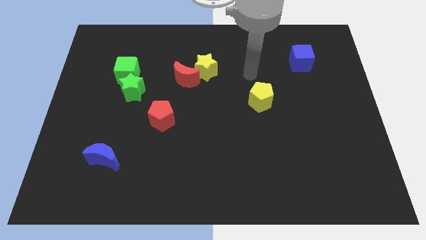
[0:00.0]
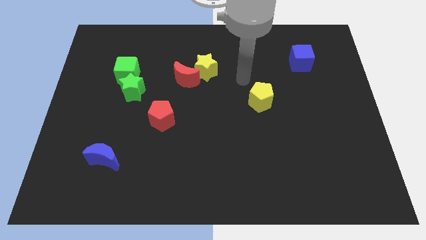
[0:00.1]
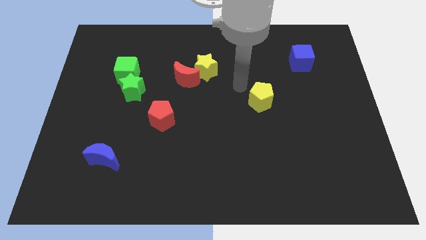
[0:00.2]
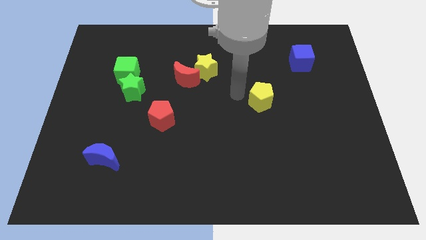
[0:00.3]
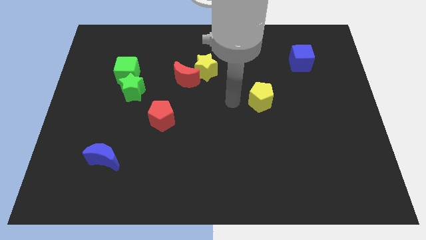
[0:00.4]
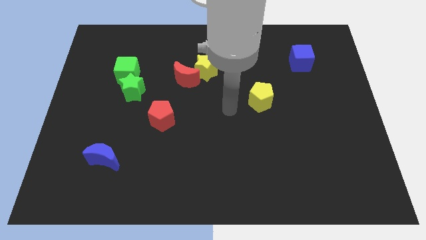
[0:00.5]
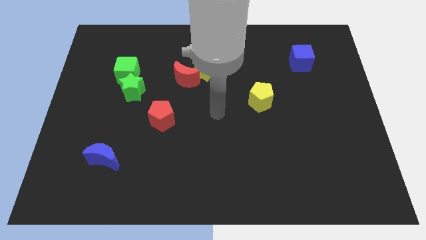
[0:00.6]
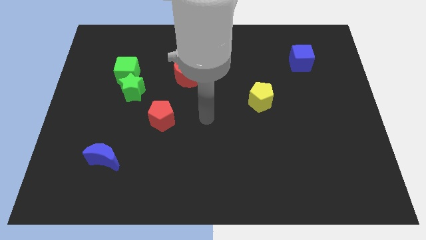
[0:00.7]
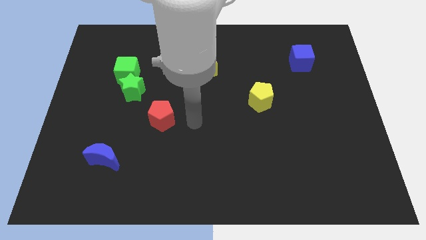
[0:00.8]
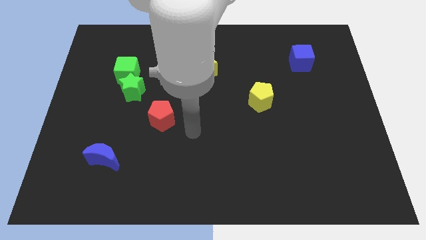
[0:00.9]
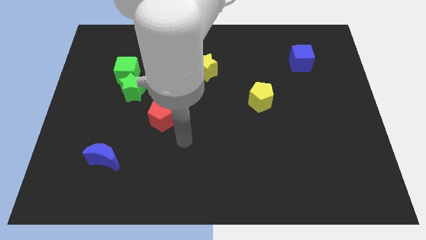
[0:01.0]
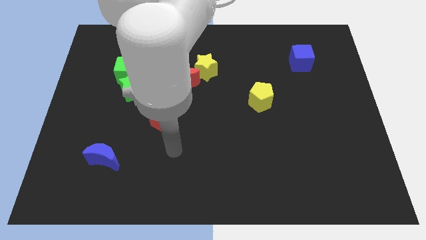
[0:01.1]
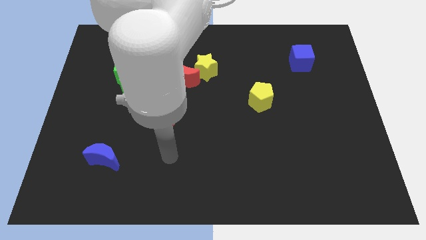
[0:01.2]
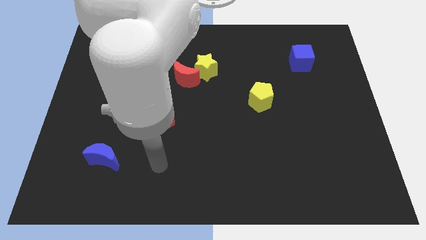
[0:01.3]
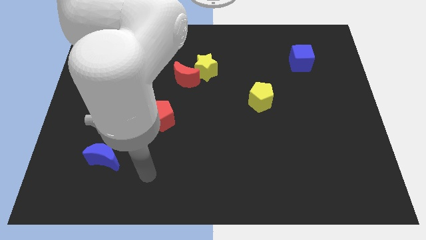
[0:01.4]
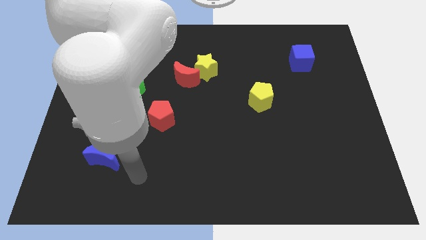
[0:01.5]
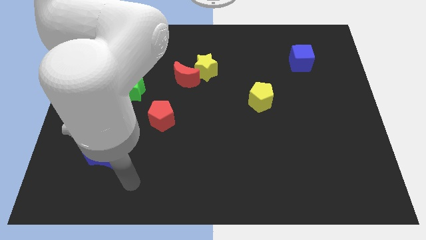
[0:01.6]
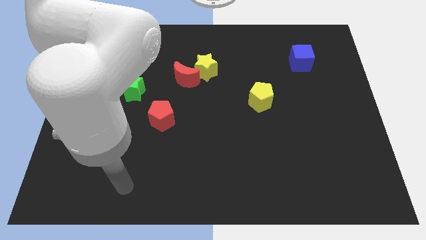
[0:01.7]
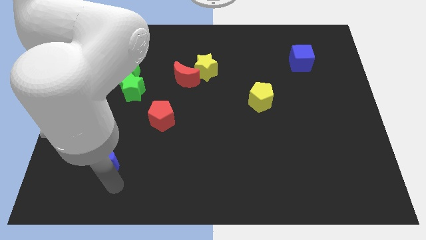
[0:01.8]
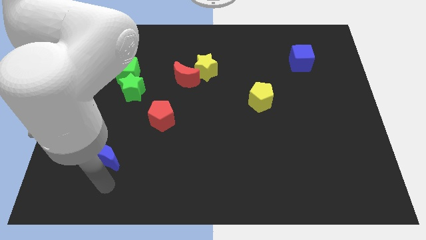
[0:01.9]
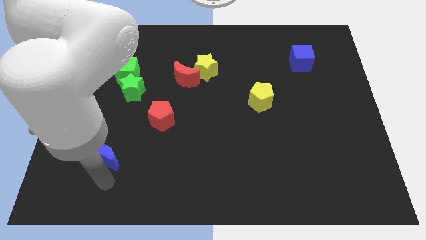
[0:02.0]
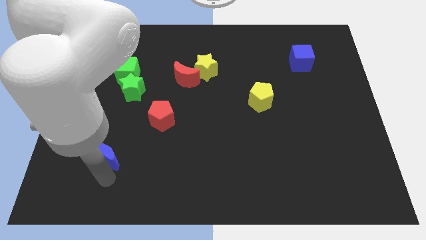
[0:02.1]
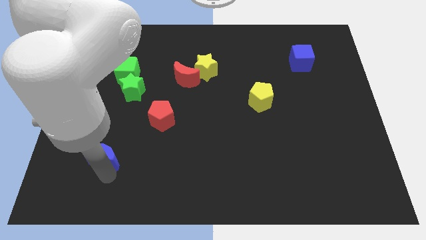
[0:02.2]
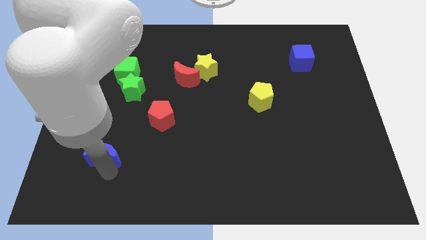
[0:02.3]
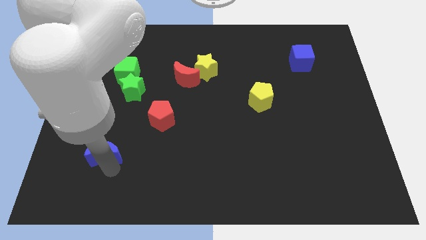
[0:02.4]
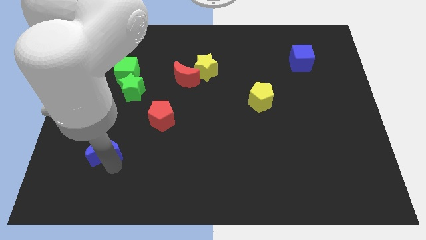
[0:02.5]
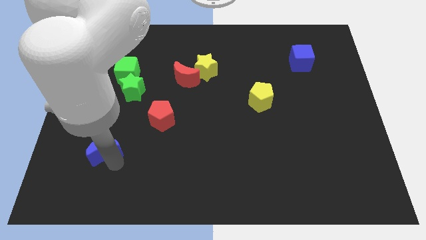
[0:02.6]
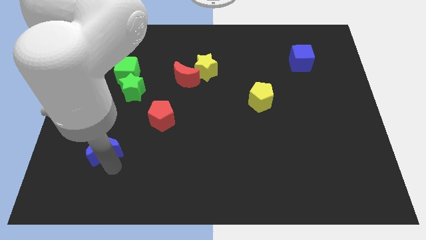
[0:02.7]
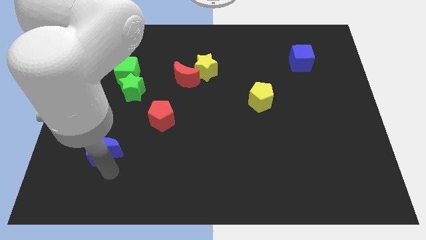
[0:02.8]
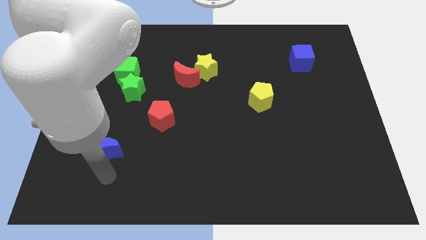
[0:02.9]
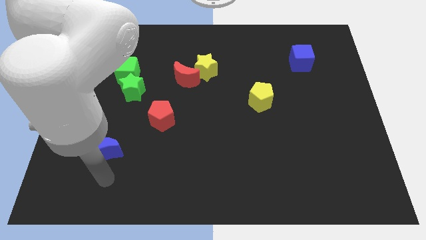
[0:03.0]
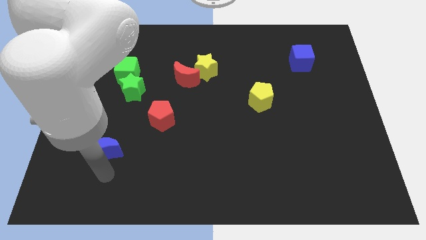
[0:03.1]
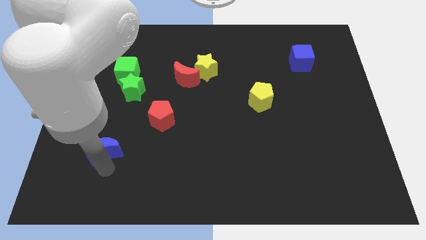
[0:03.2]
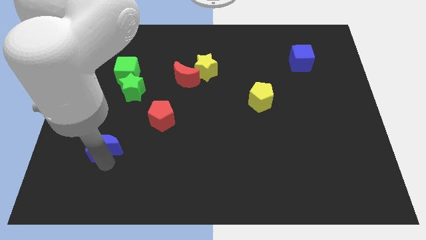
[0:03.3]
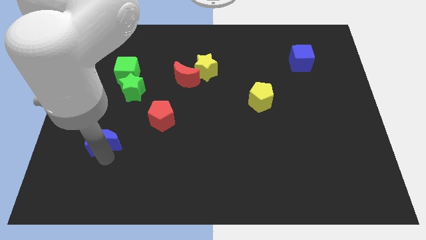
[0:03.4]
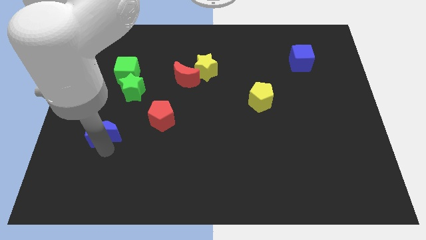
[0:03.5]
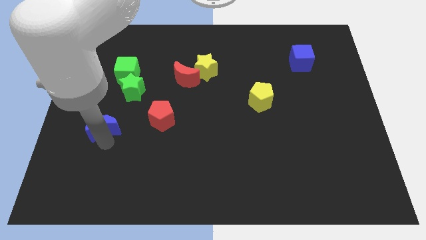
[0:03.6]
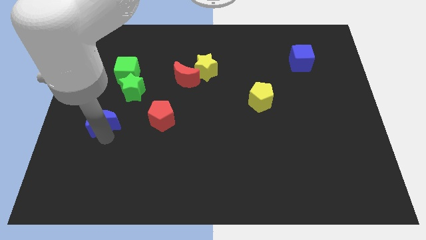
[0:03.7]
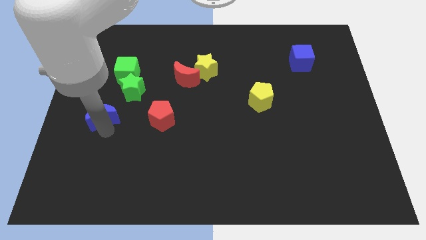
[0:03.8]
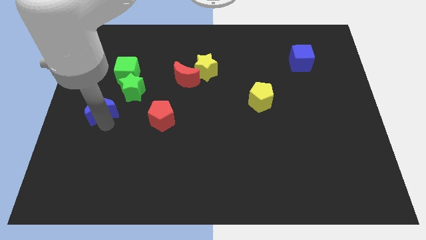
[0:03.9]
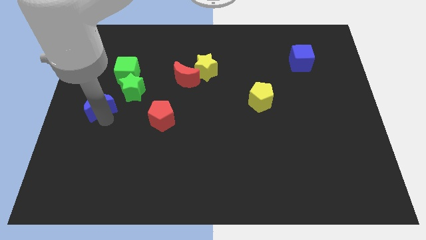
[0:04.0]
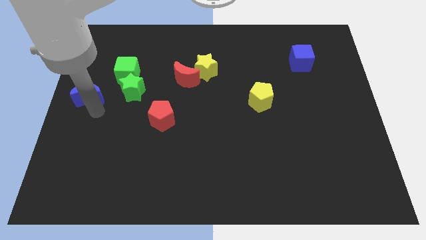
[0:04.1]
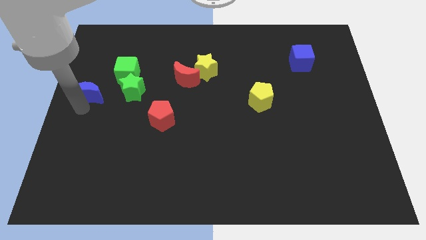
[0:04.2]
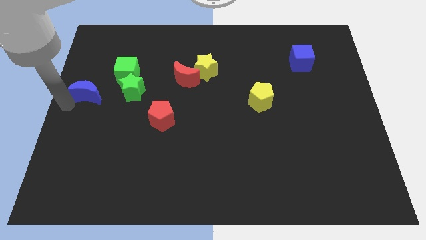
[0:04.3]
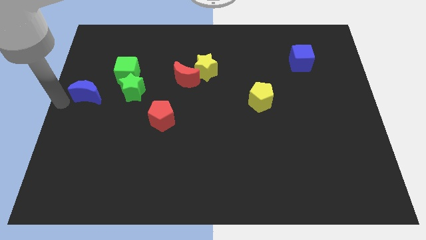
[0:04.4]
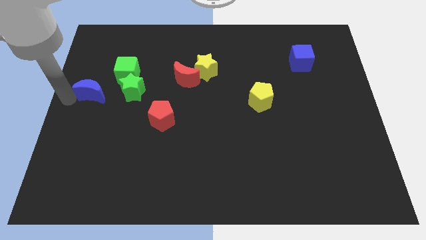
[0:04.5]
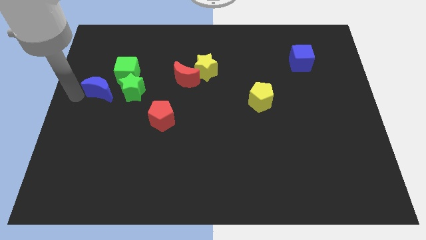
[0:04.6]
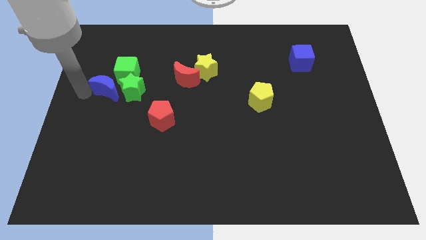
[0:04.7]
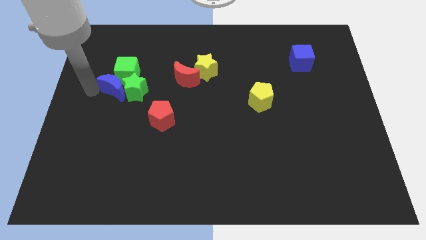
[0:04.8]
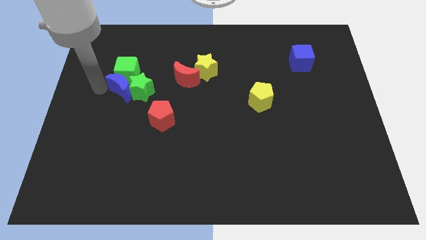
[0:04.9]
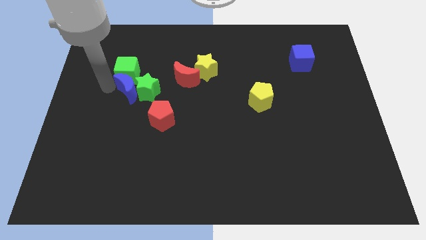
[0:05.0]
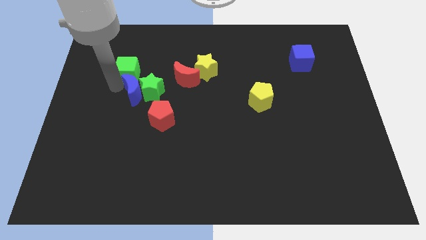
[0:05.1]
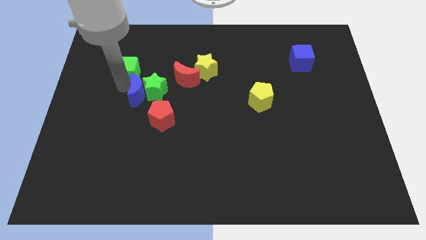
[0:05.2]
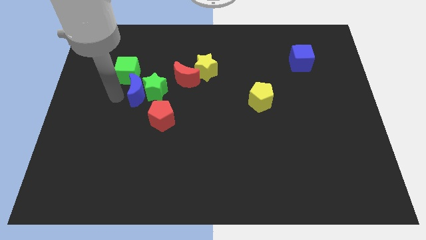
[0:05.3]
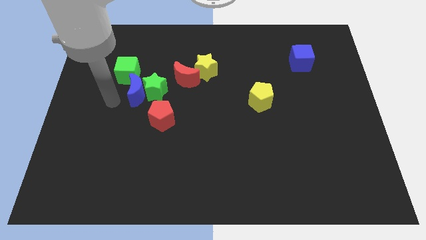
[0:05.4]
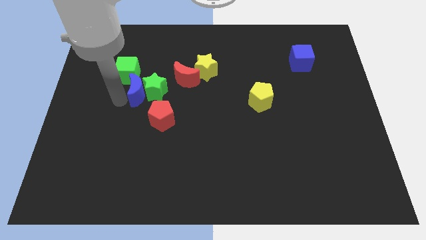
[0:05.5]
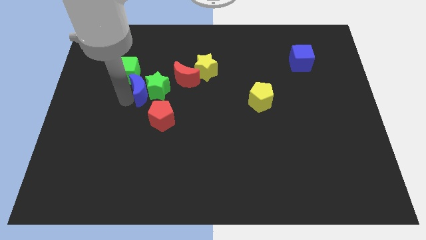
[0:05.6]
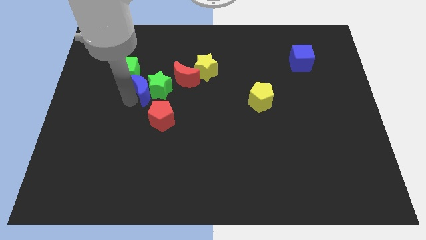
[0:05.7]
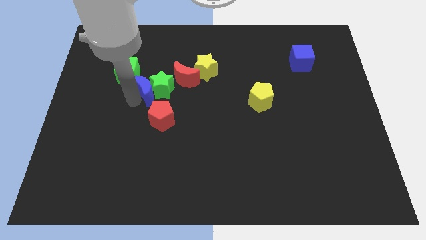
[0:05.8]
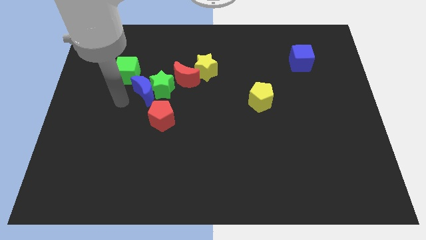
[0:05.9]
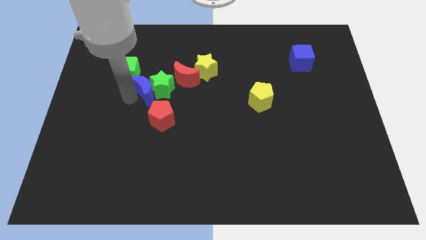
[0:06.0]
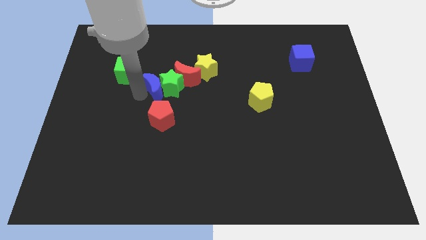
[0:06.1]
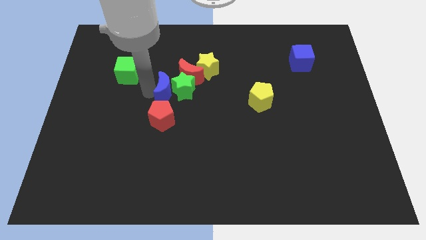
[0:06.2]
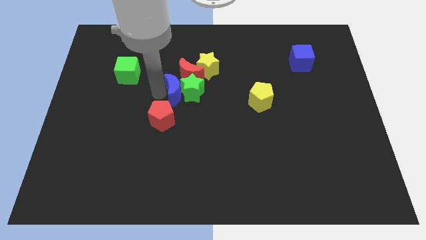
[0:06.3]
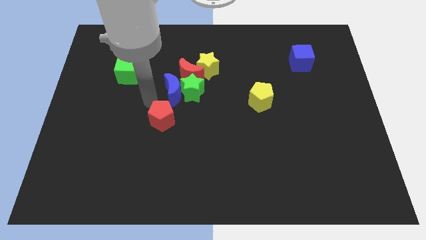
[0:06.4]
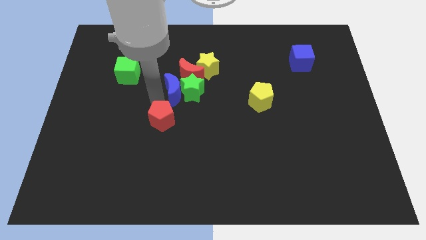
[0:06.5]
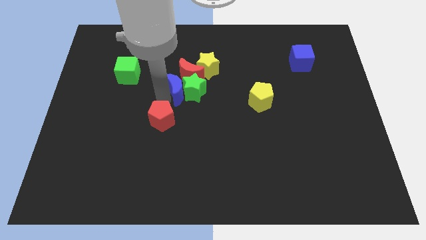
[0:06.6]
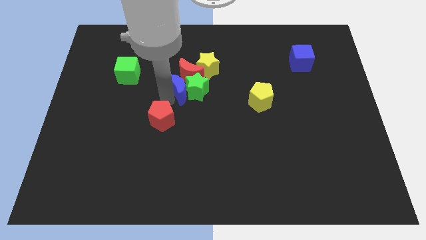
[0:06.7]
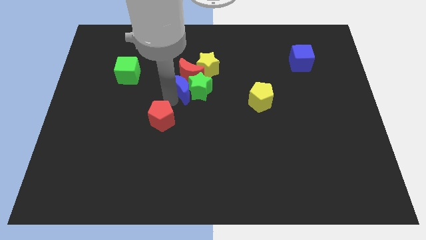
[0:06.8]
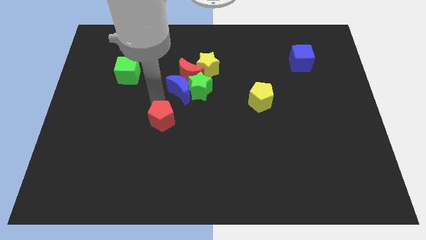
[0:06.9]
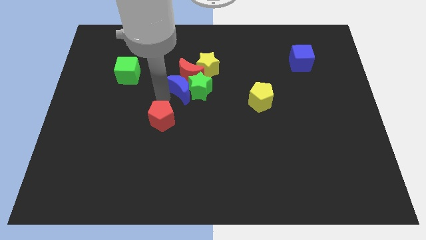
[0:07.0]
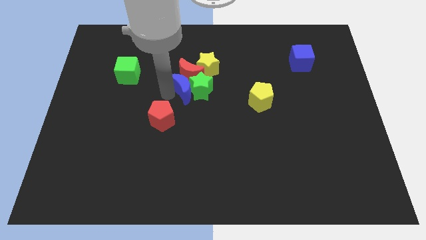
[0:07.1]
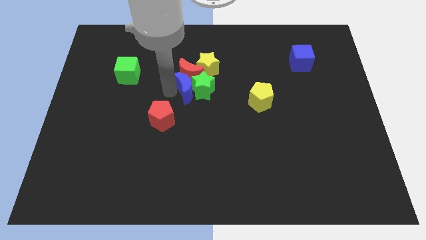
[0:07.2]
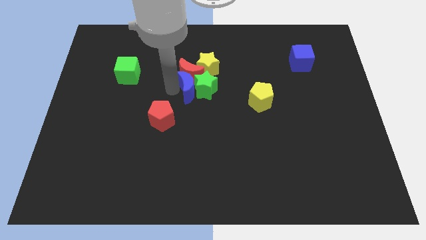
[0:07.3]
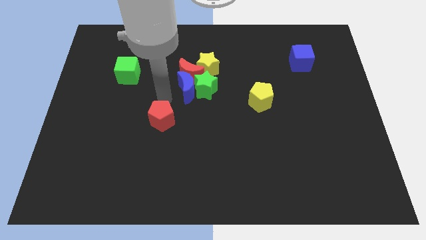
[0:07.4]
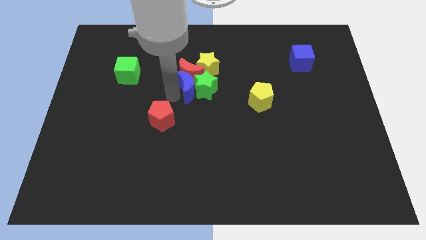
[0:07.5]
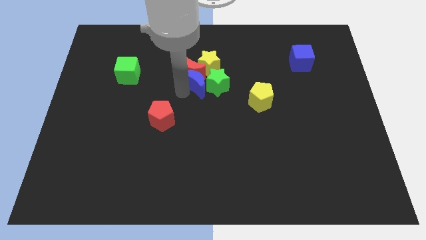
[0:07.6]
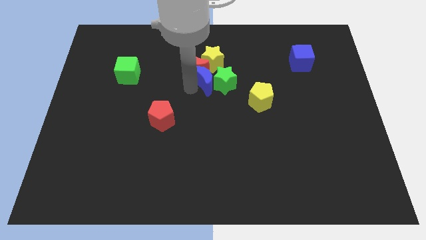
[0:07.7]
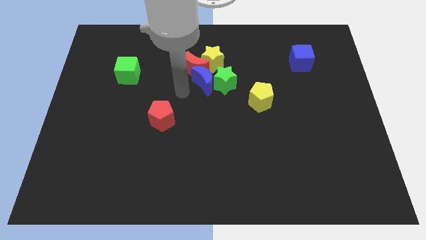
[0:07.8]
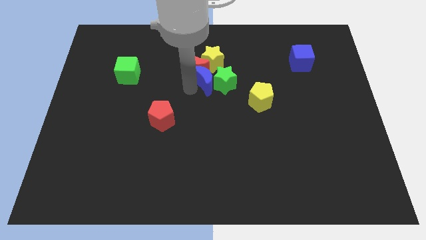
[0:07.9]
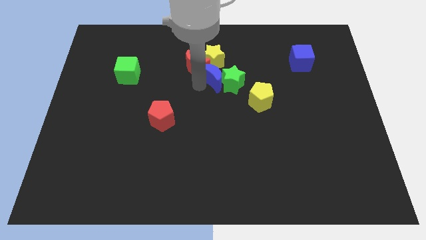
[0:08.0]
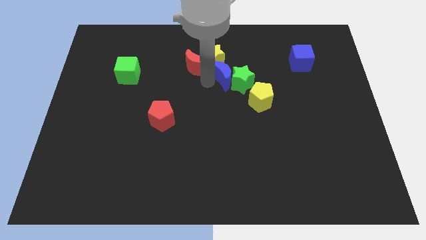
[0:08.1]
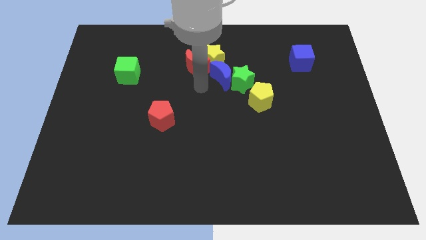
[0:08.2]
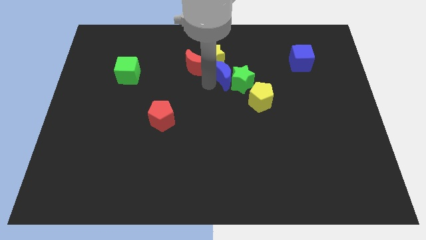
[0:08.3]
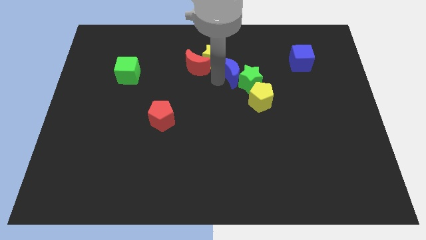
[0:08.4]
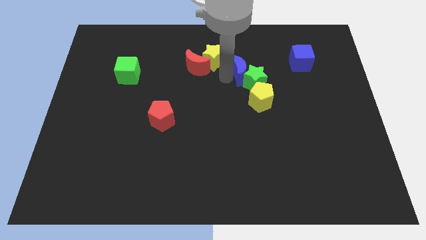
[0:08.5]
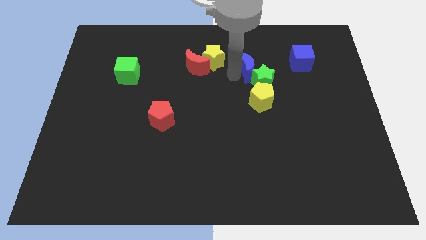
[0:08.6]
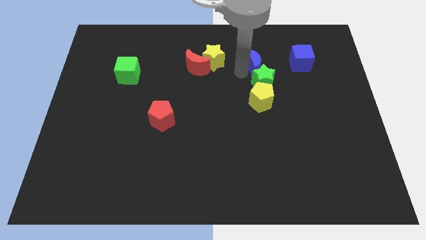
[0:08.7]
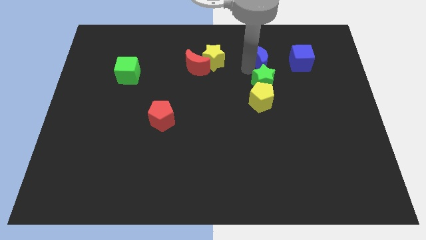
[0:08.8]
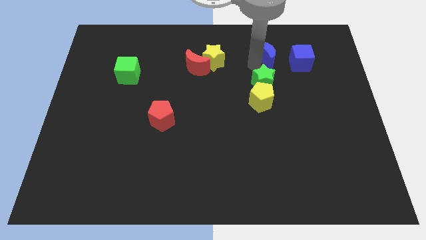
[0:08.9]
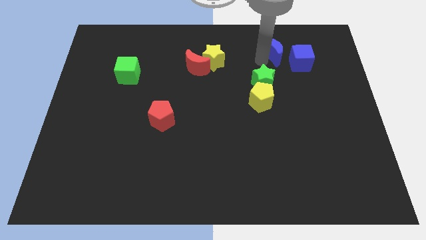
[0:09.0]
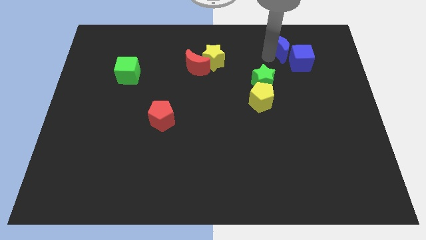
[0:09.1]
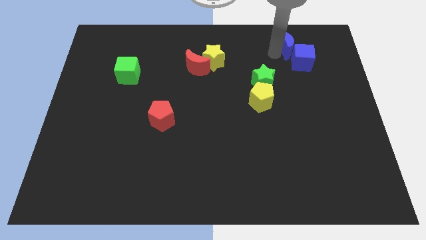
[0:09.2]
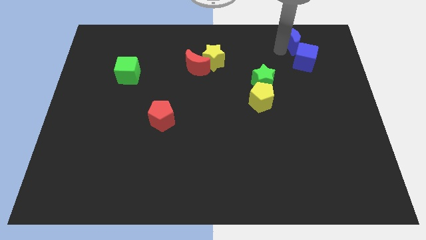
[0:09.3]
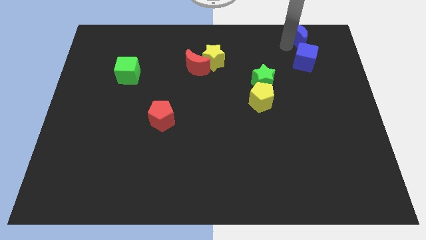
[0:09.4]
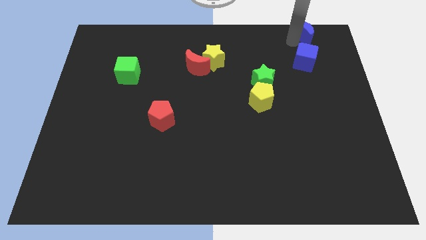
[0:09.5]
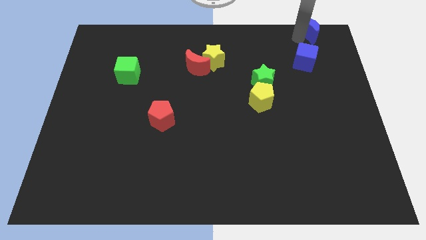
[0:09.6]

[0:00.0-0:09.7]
push the blue moon to the upper right corner
